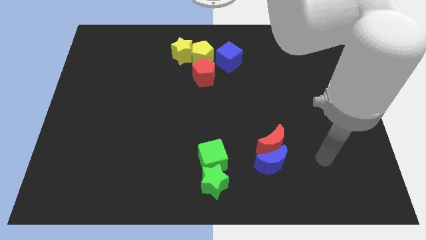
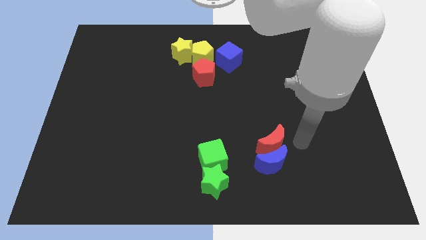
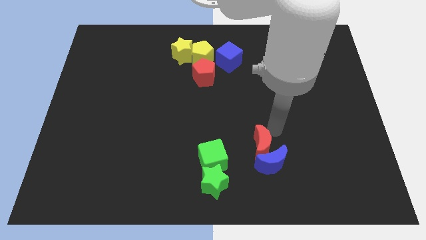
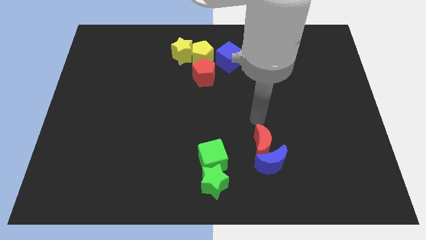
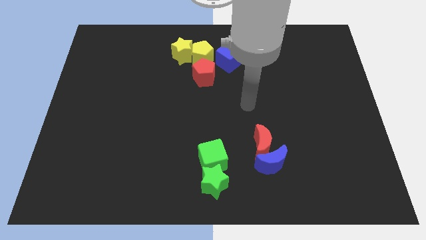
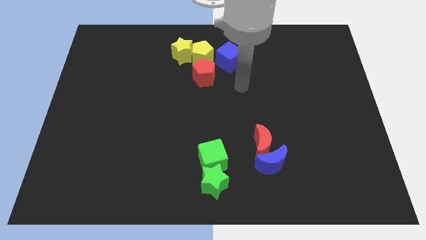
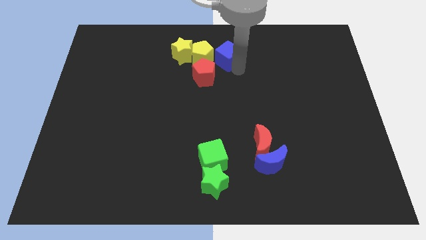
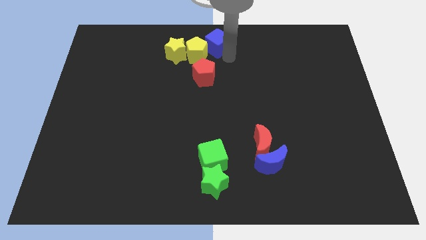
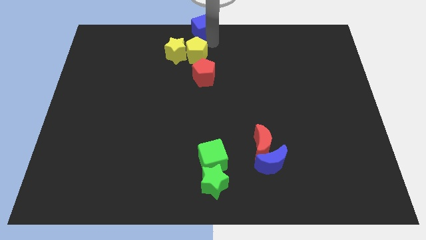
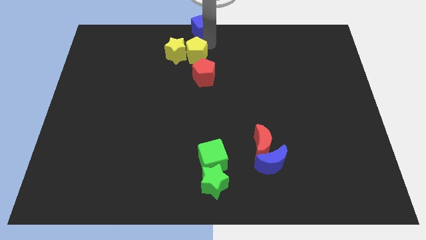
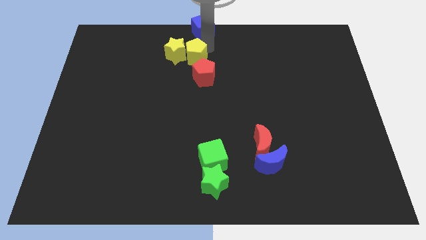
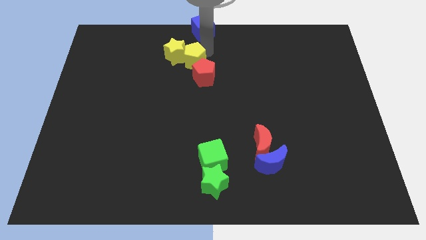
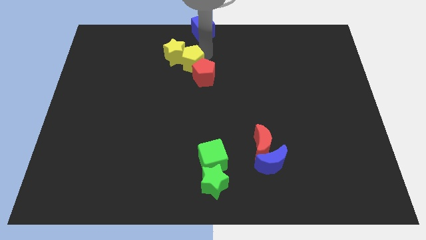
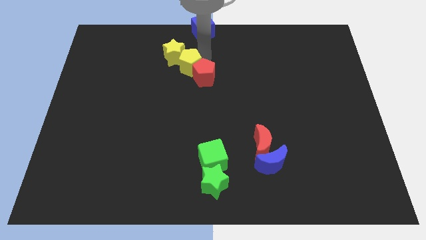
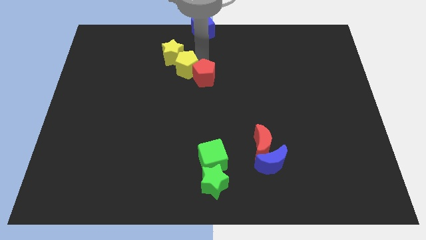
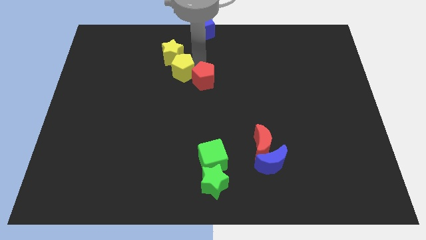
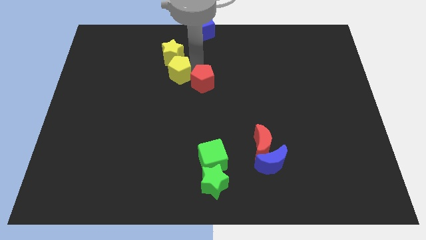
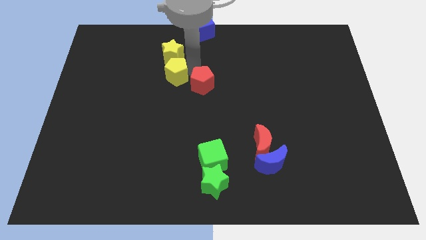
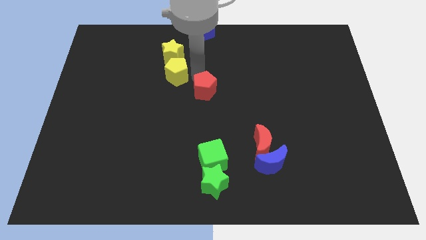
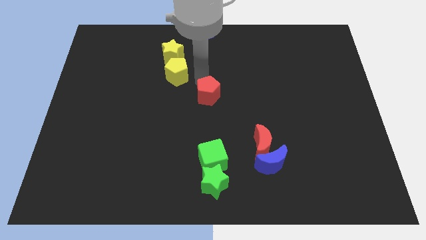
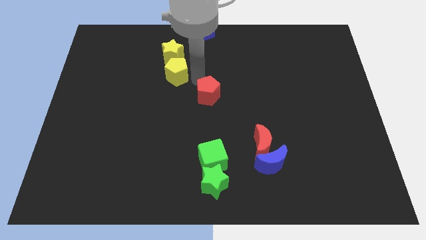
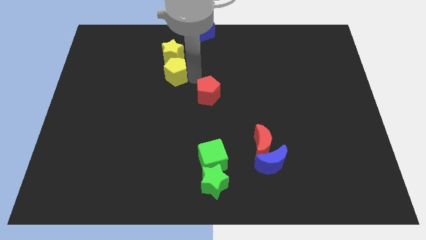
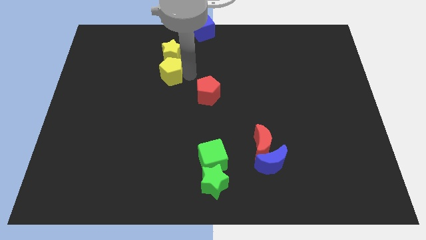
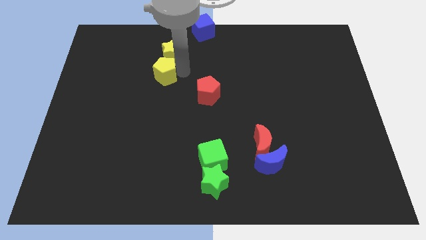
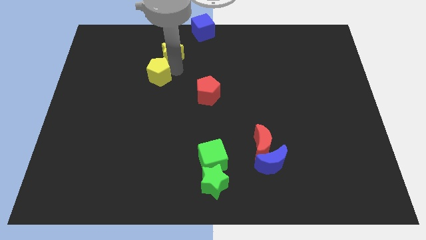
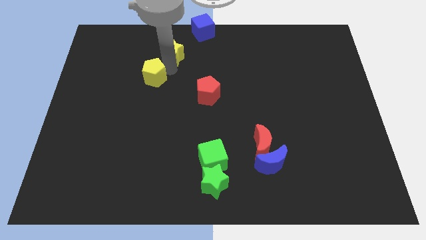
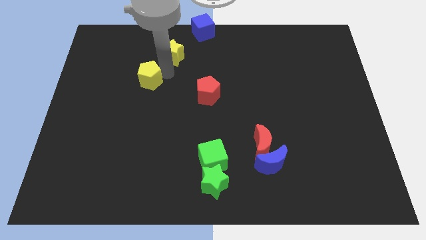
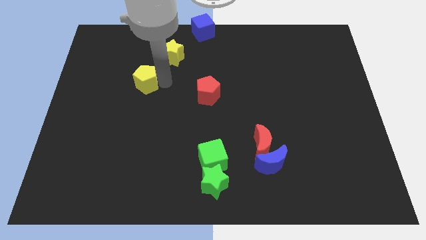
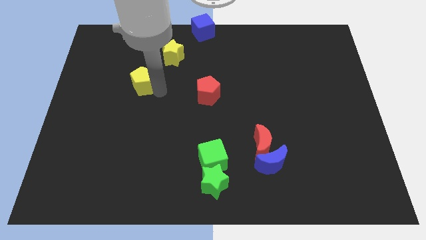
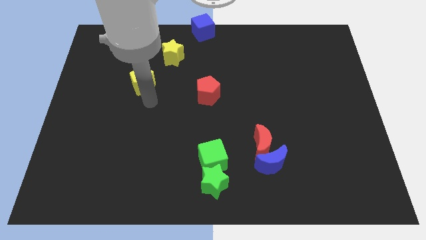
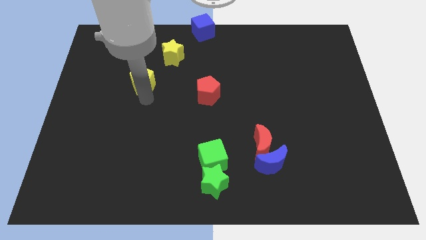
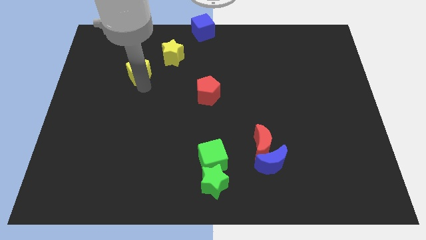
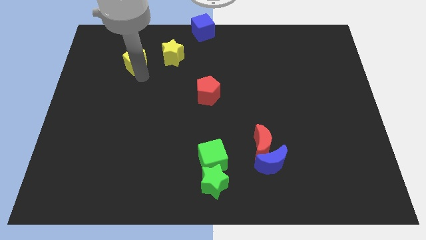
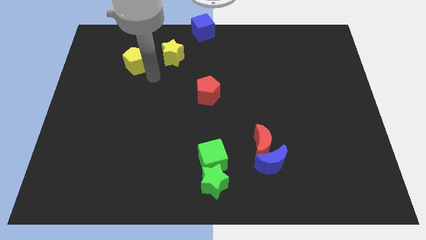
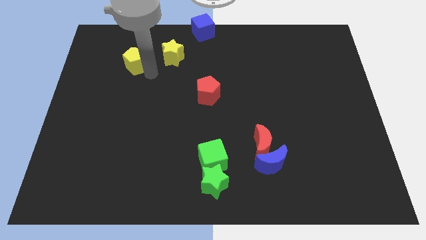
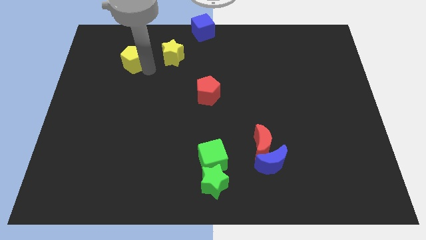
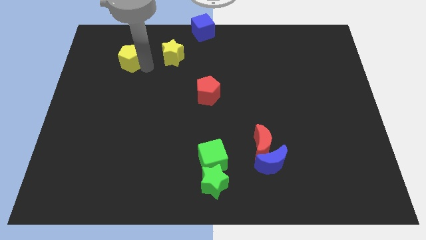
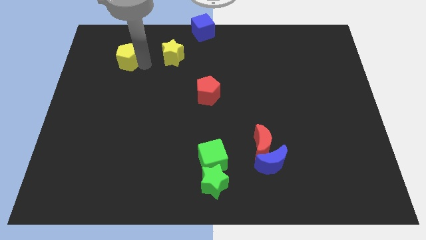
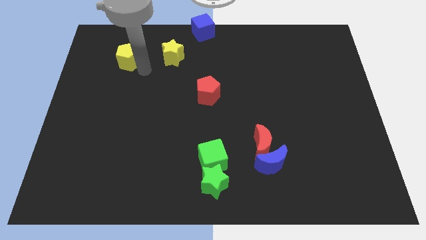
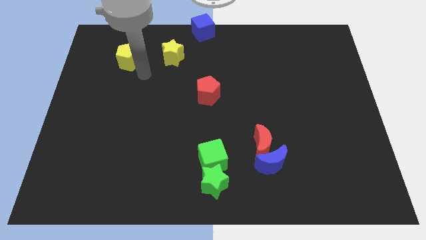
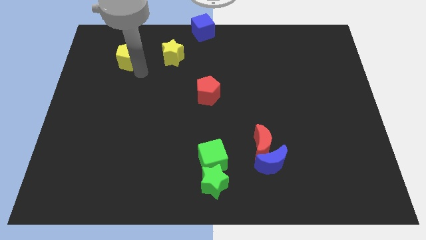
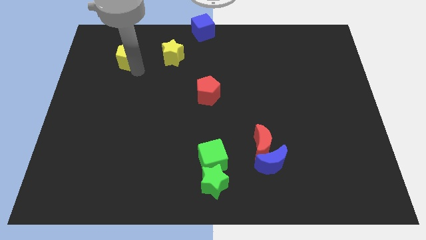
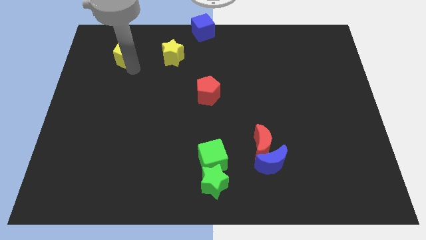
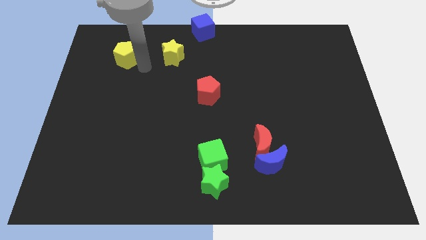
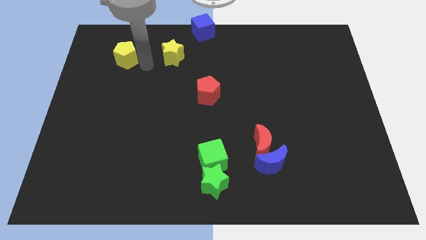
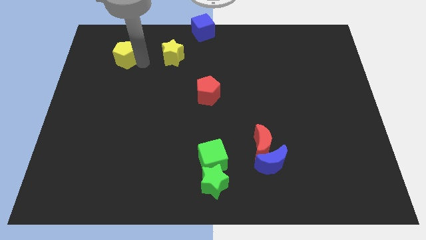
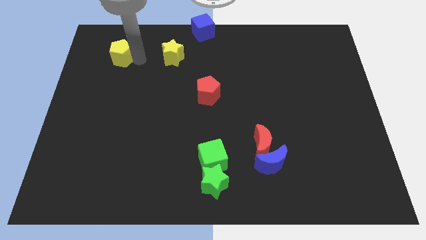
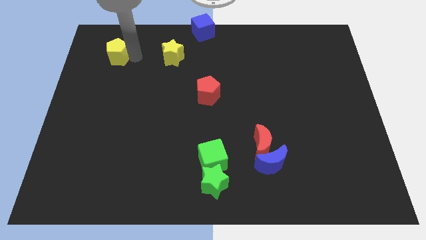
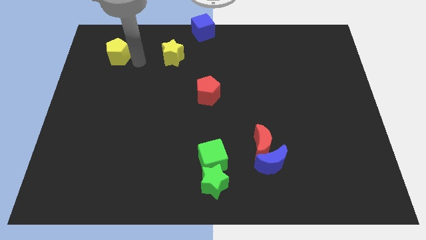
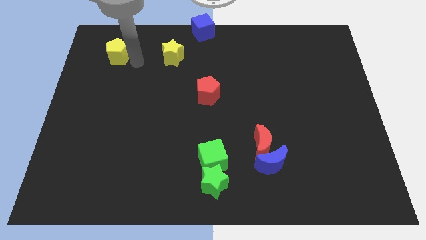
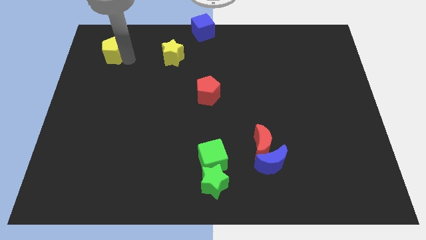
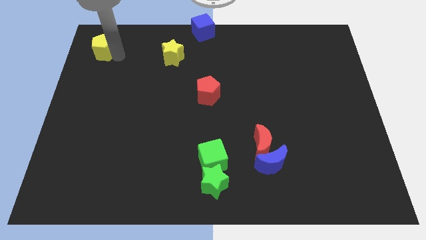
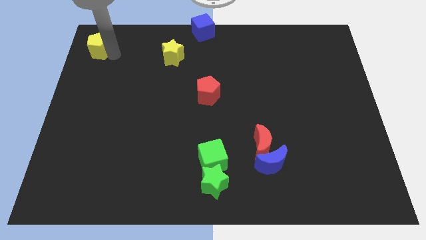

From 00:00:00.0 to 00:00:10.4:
slide the yellow pentagon to the top left

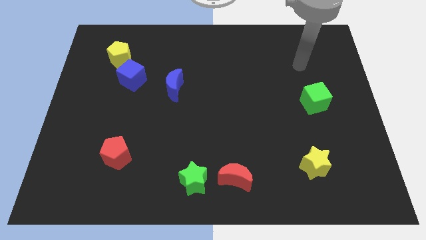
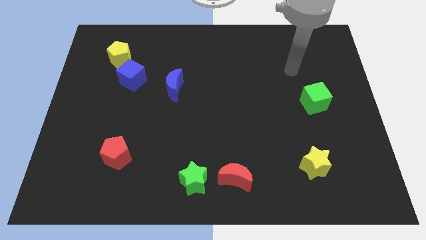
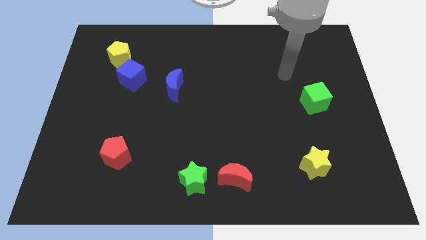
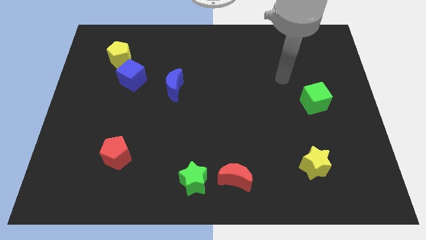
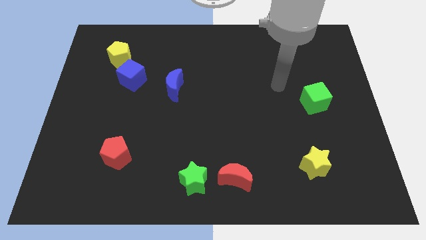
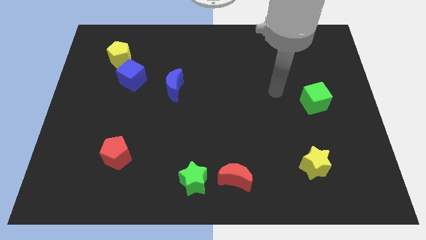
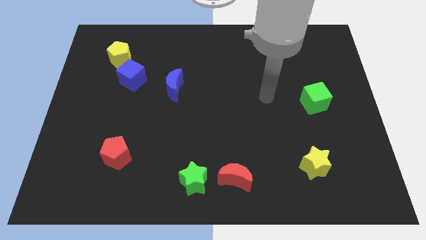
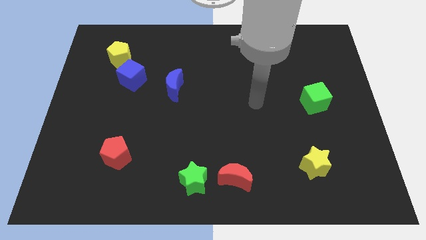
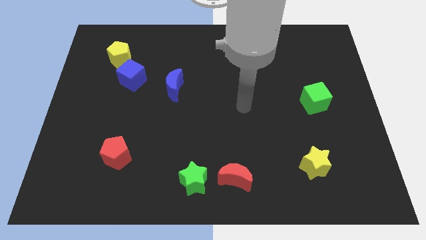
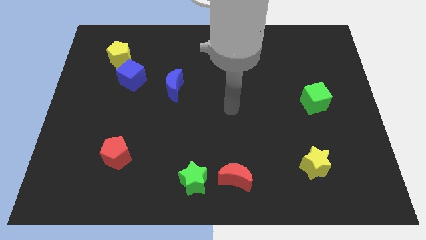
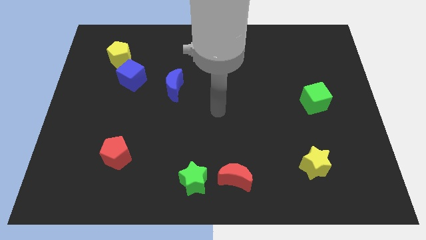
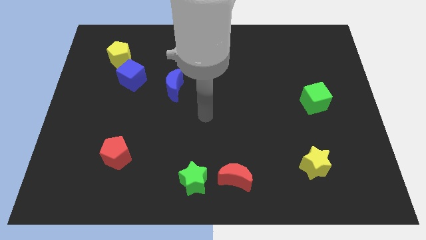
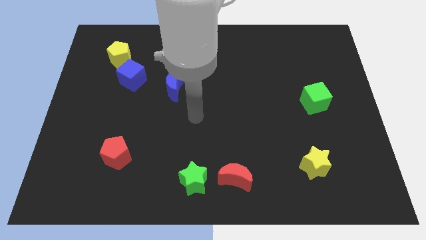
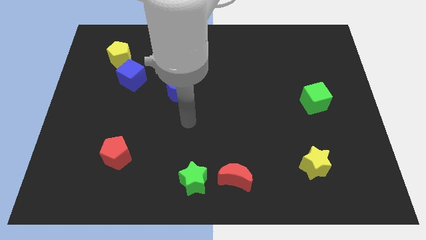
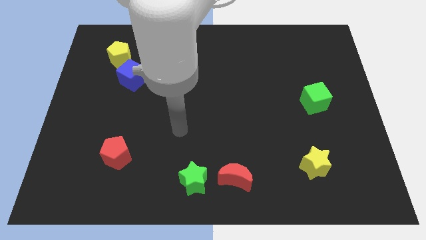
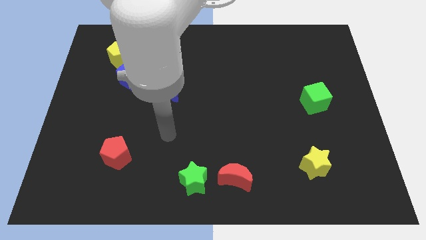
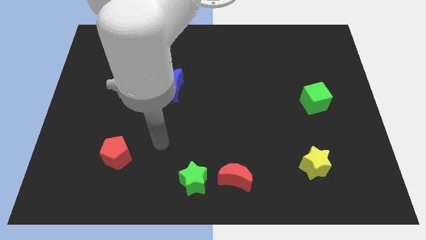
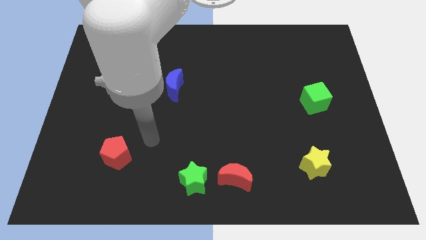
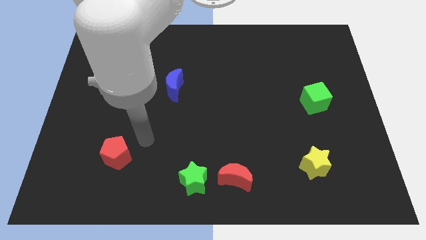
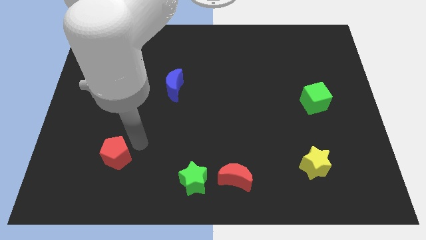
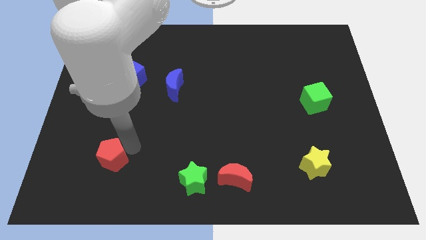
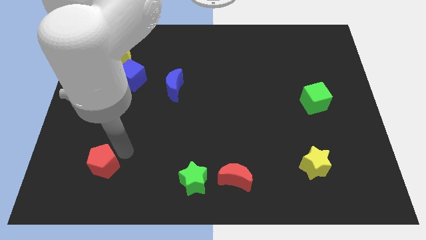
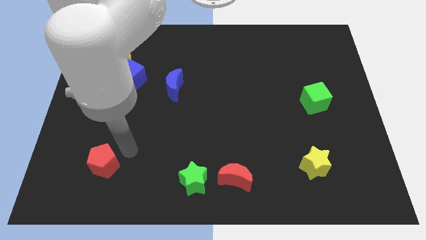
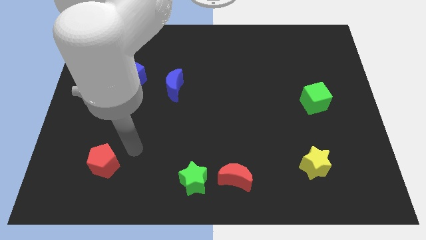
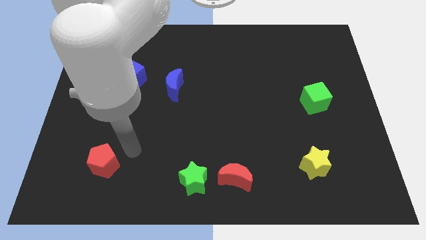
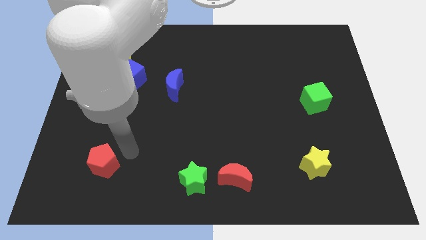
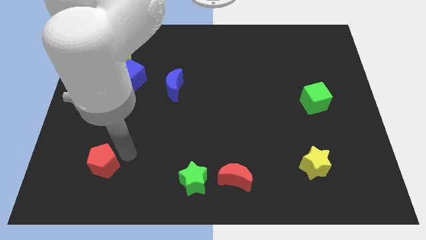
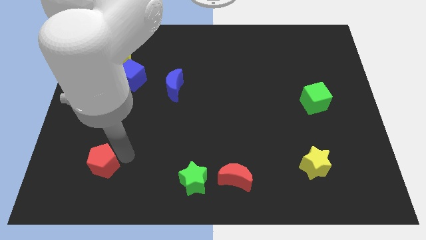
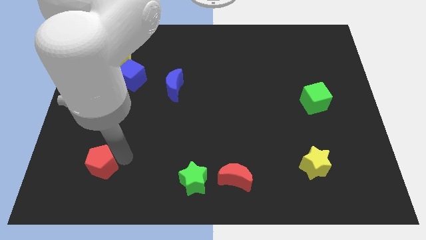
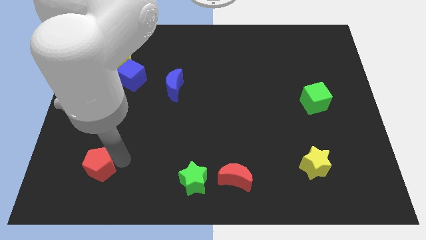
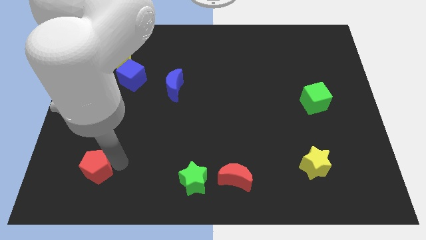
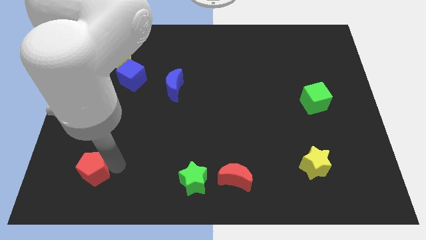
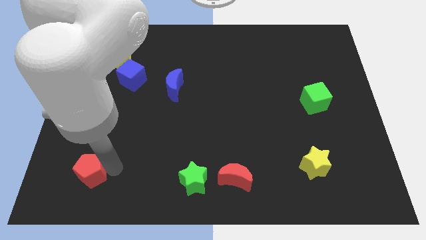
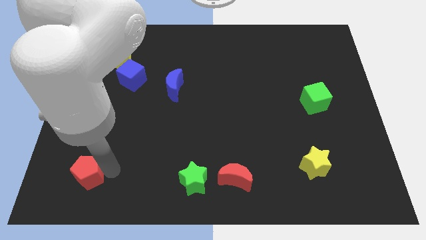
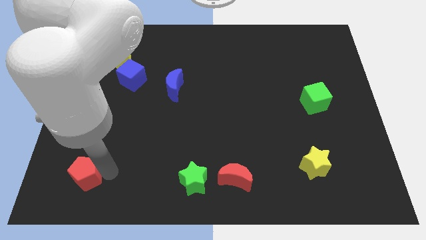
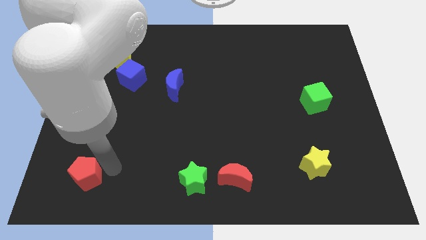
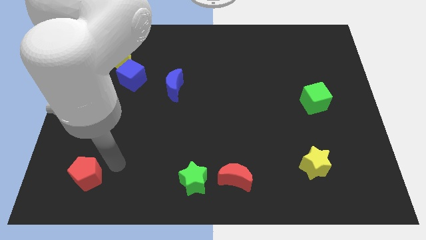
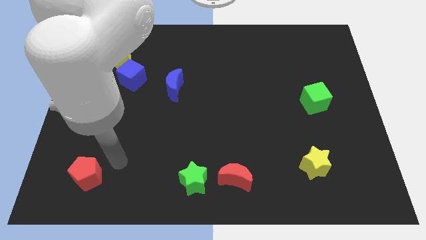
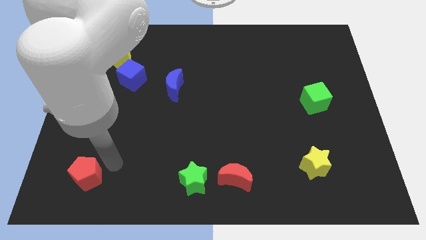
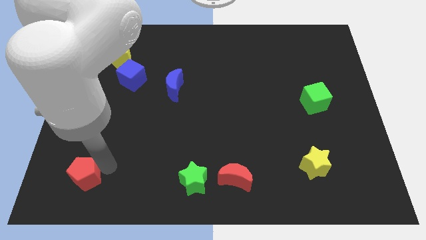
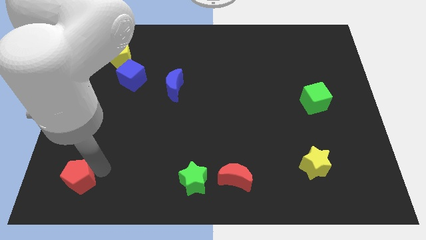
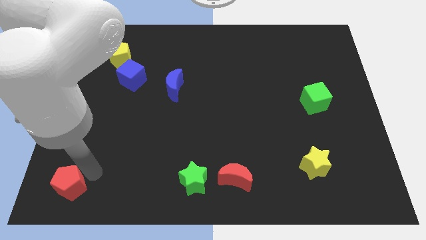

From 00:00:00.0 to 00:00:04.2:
put the red pentagon to the bottom left
